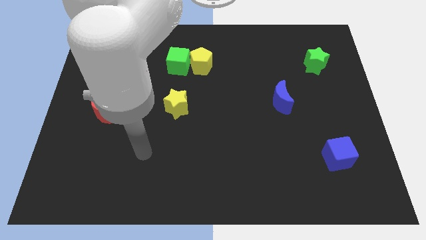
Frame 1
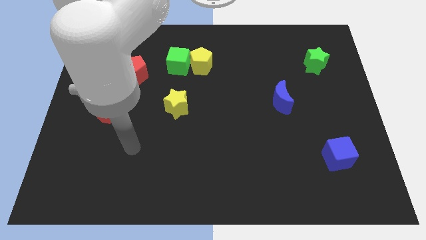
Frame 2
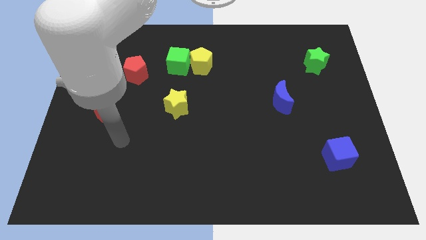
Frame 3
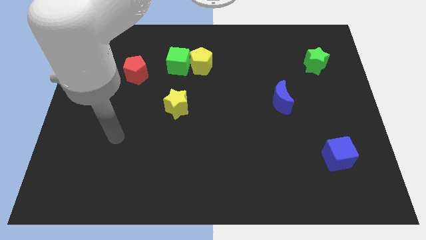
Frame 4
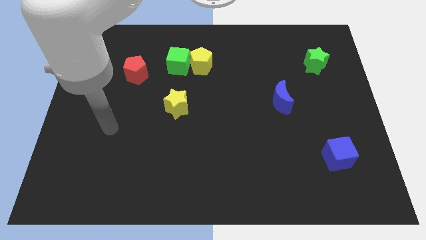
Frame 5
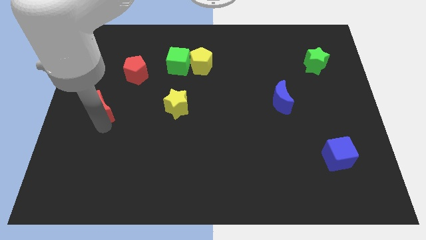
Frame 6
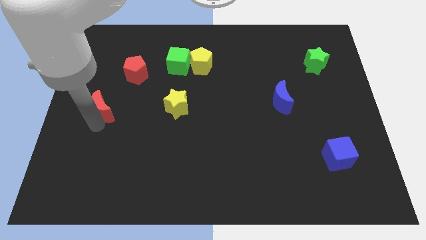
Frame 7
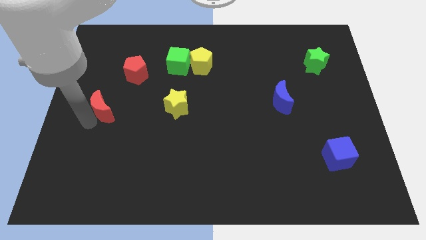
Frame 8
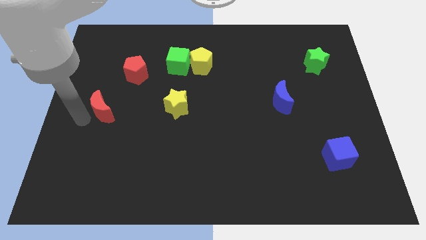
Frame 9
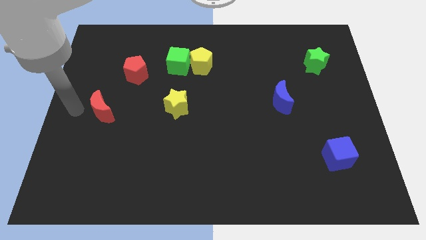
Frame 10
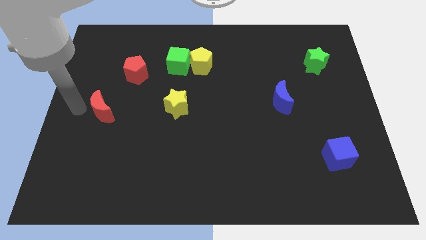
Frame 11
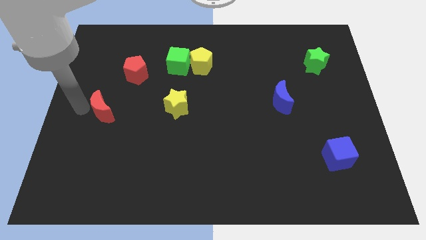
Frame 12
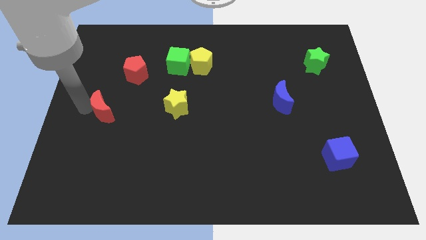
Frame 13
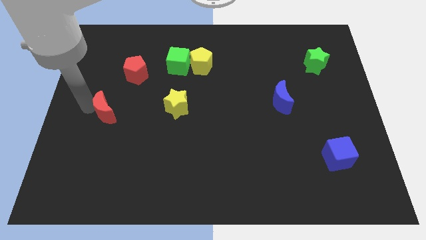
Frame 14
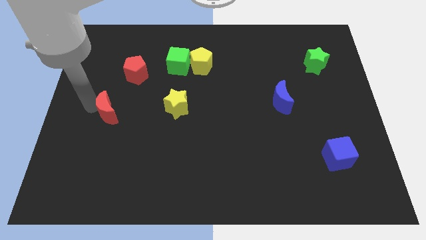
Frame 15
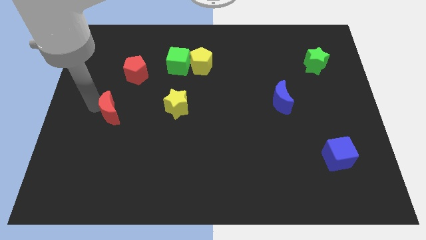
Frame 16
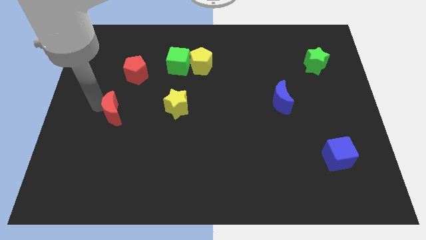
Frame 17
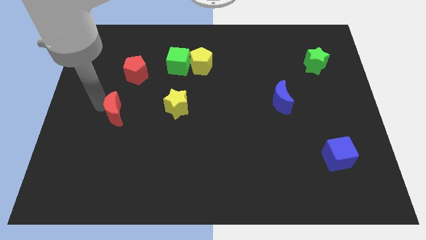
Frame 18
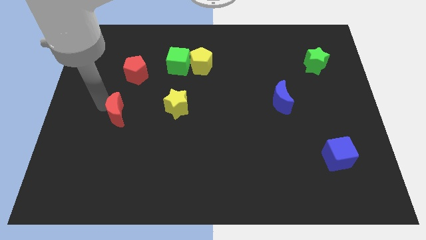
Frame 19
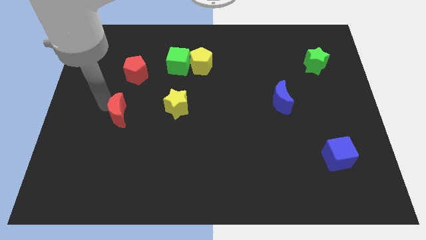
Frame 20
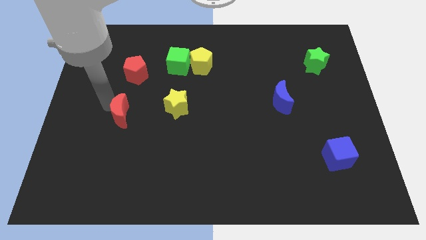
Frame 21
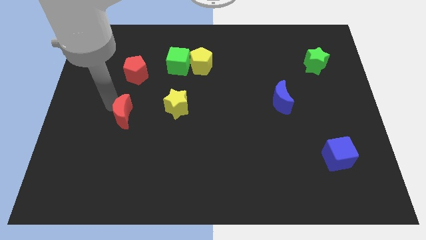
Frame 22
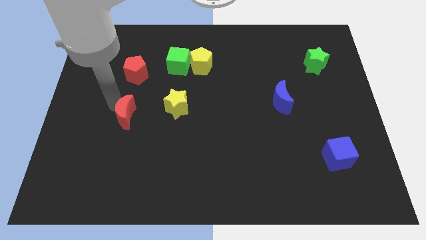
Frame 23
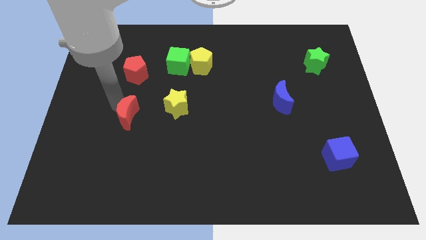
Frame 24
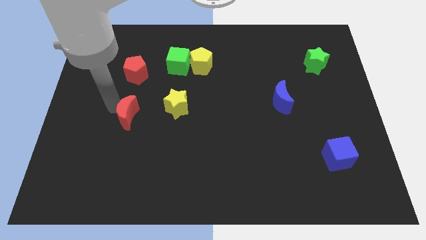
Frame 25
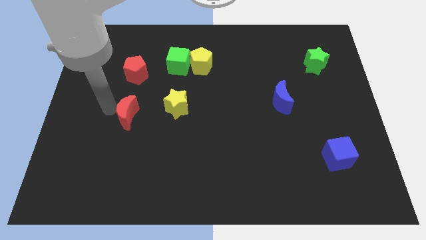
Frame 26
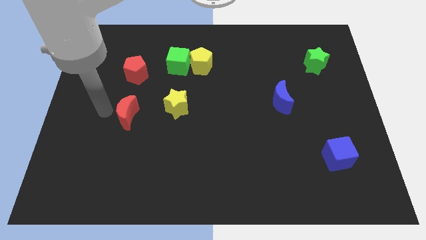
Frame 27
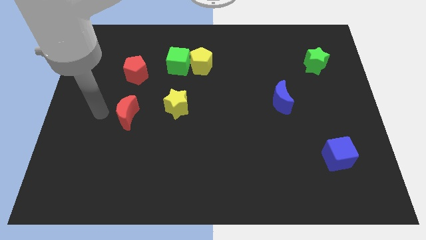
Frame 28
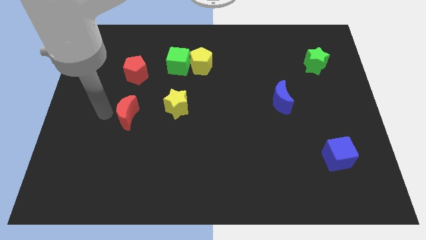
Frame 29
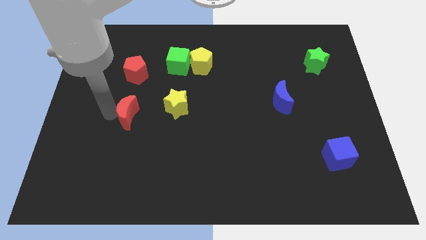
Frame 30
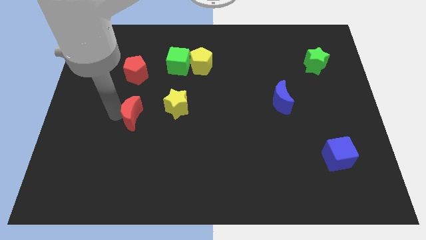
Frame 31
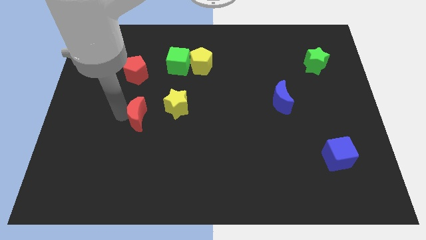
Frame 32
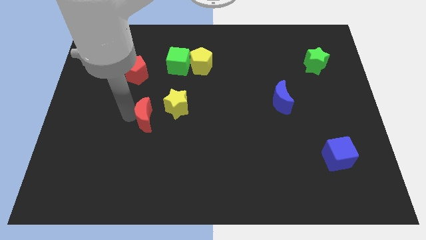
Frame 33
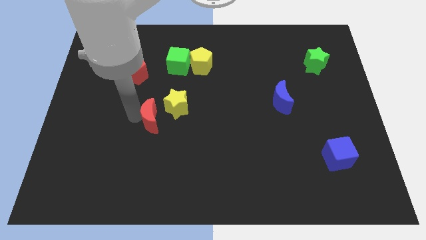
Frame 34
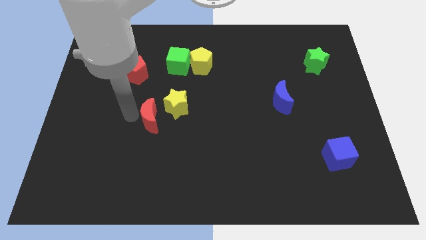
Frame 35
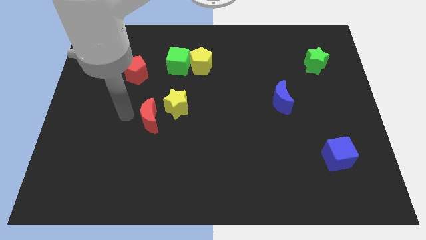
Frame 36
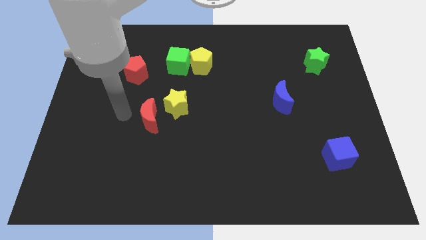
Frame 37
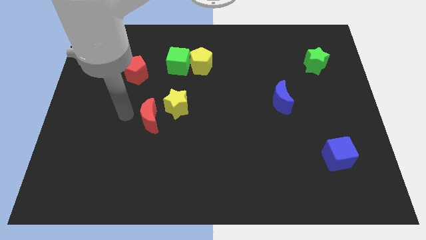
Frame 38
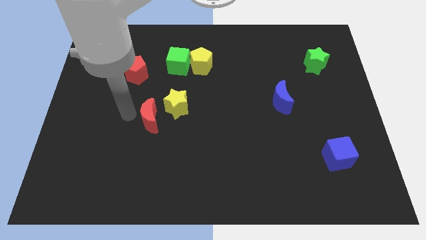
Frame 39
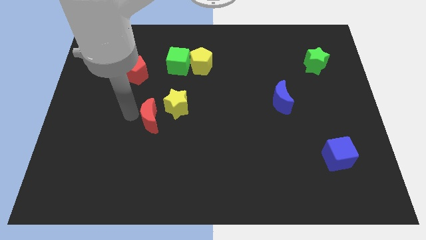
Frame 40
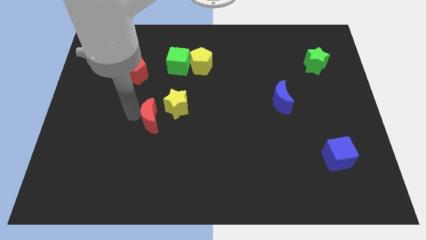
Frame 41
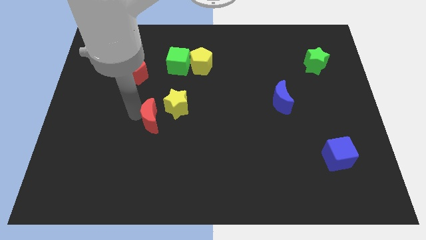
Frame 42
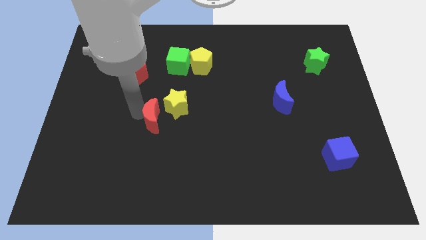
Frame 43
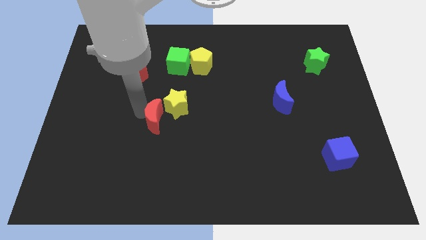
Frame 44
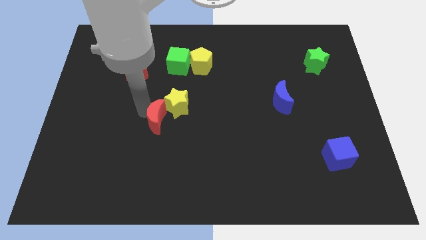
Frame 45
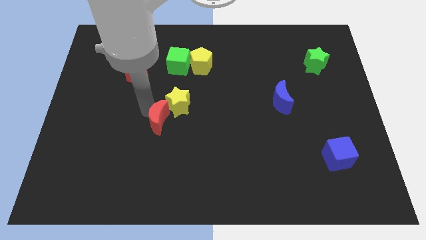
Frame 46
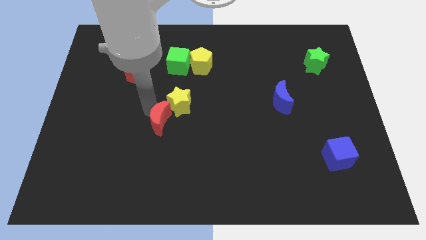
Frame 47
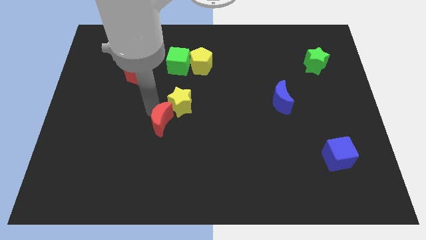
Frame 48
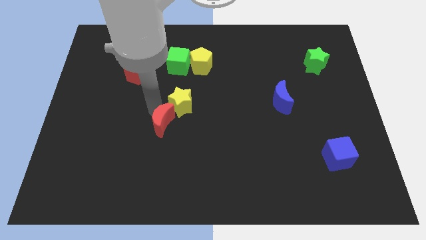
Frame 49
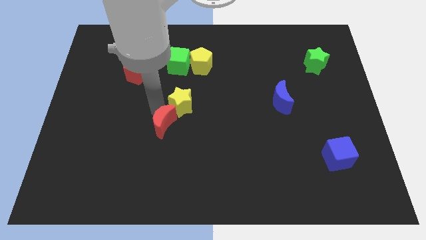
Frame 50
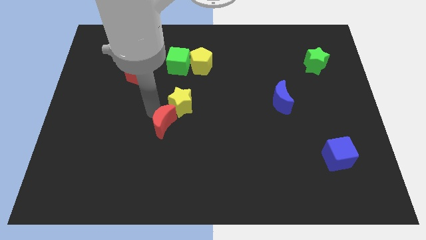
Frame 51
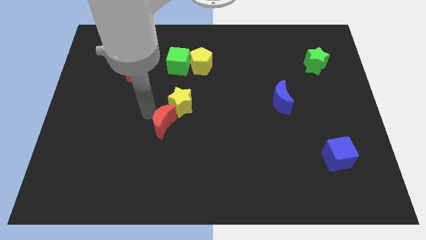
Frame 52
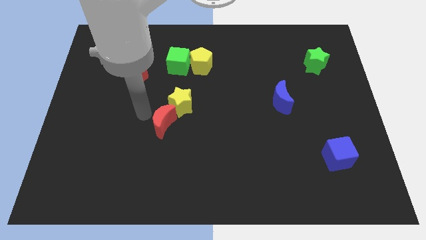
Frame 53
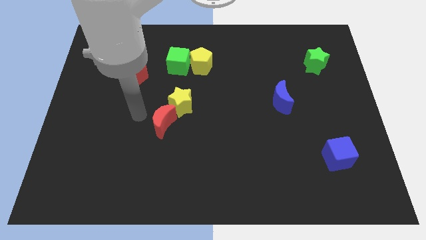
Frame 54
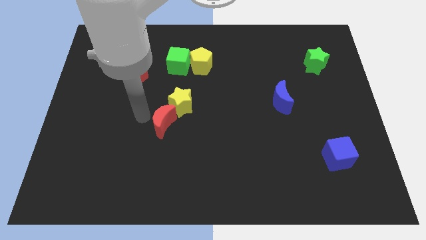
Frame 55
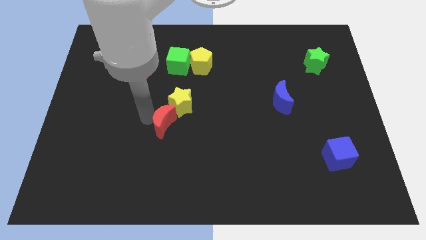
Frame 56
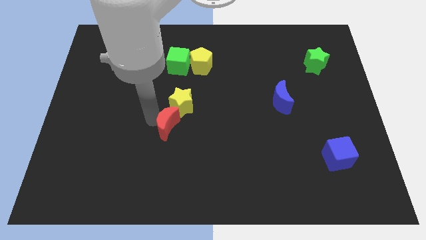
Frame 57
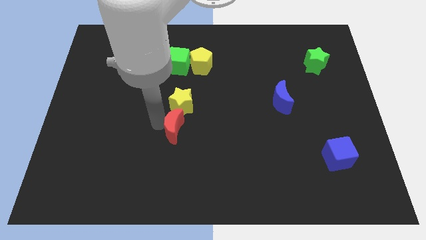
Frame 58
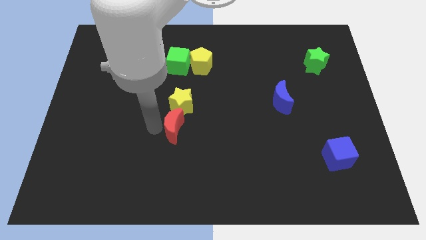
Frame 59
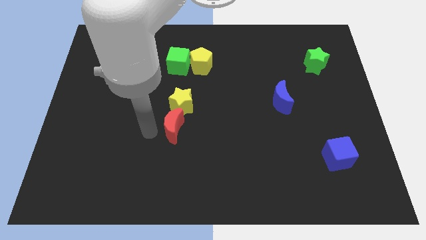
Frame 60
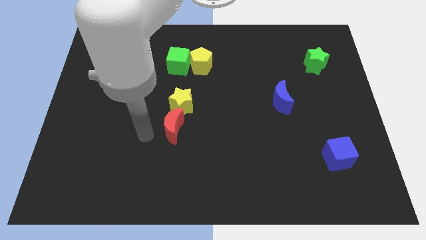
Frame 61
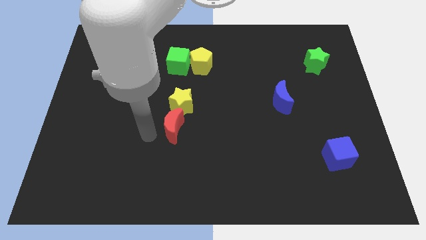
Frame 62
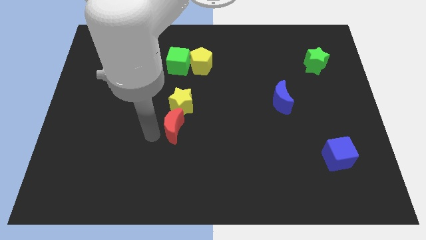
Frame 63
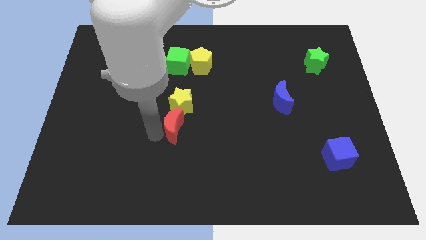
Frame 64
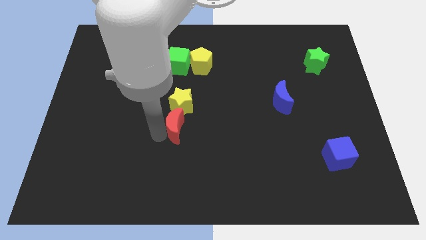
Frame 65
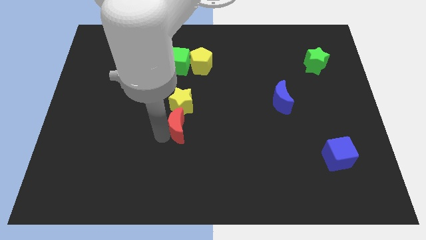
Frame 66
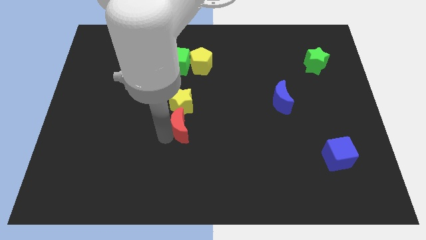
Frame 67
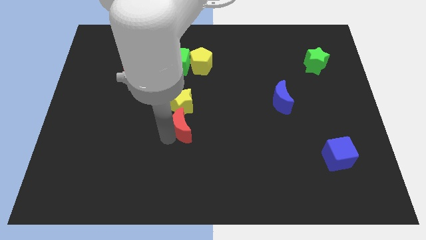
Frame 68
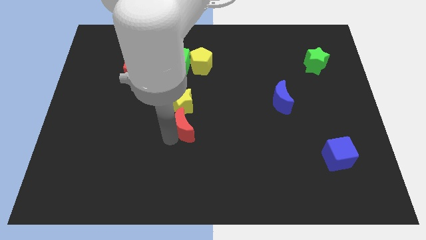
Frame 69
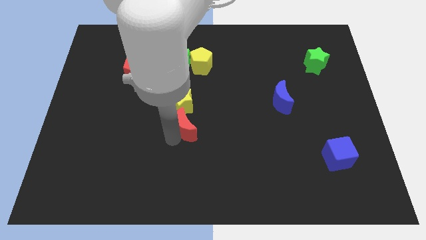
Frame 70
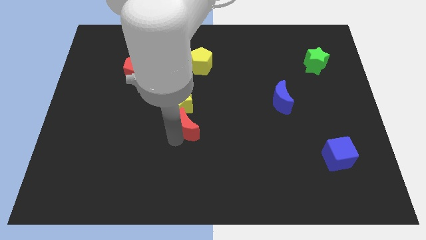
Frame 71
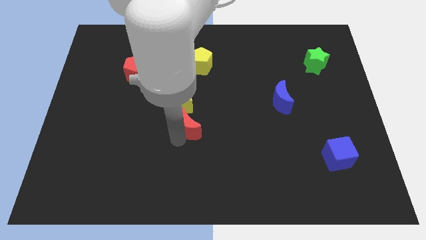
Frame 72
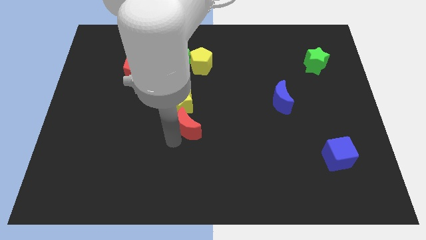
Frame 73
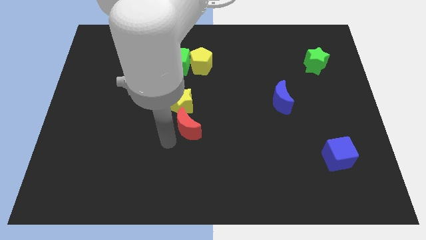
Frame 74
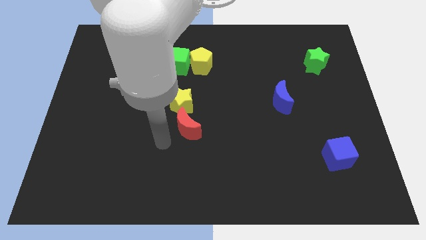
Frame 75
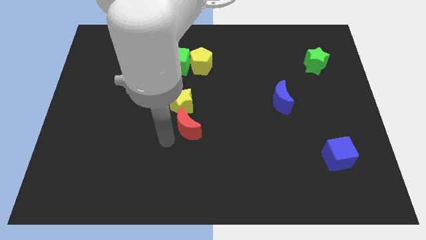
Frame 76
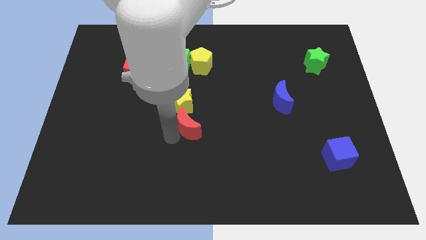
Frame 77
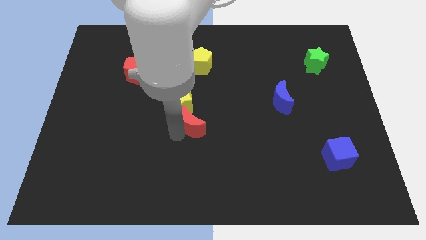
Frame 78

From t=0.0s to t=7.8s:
move the red moon right

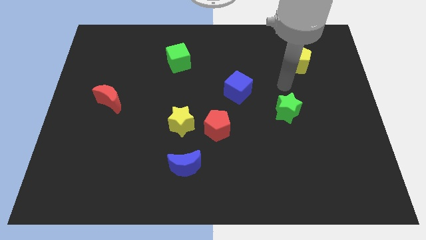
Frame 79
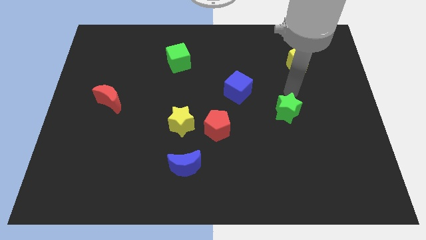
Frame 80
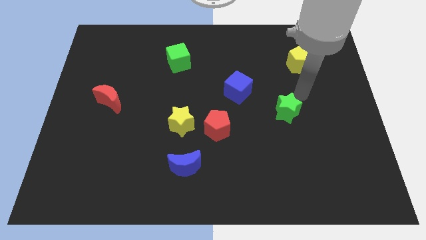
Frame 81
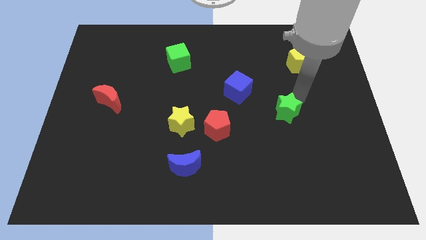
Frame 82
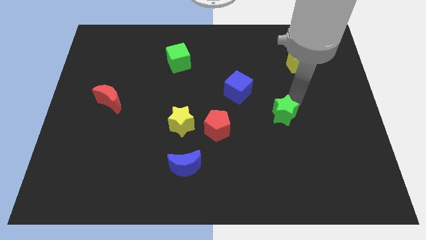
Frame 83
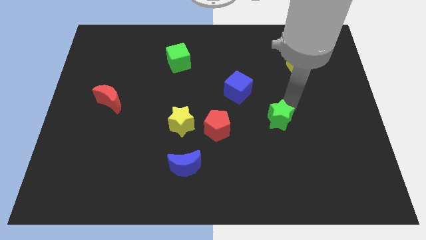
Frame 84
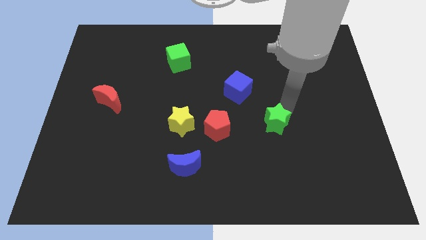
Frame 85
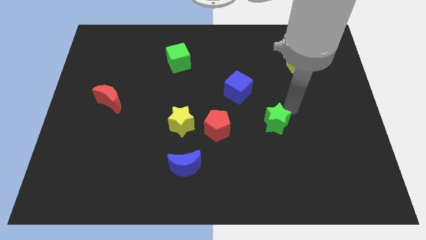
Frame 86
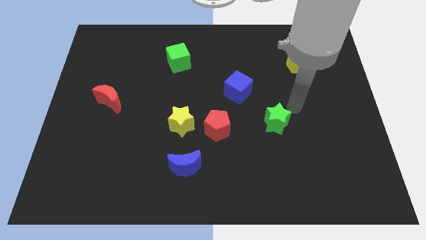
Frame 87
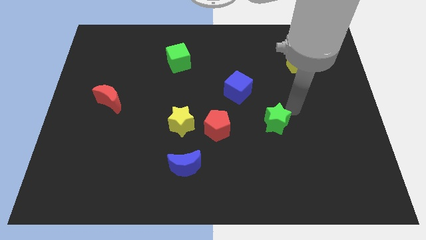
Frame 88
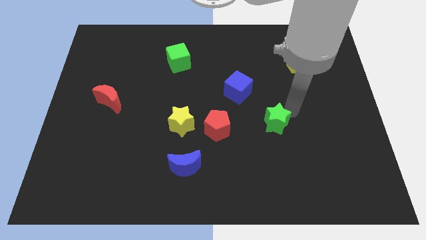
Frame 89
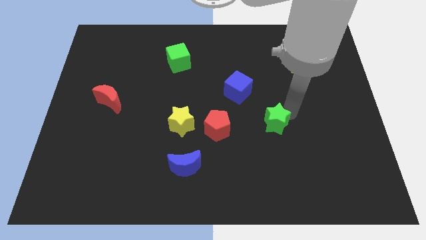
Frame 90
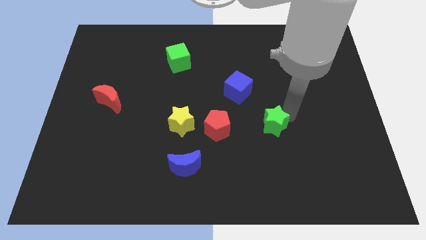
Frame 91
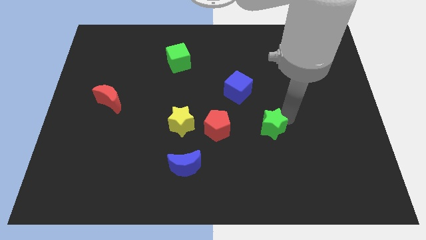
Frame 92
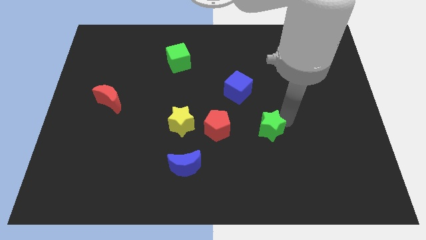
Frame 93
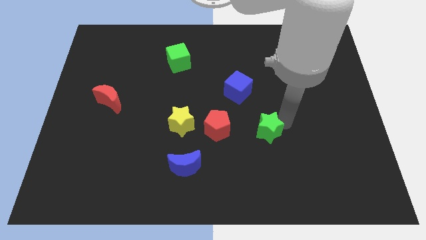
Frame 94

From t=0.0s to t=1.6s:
slide the green star downwards and then to the left somewhat
